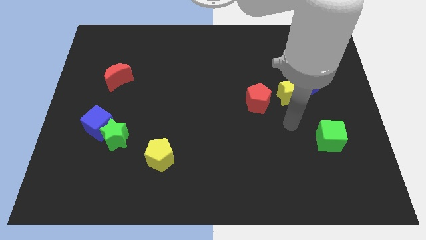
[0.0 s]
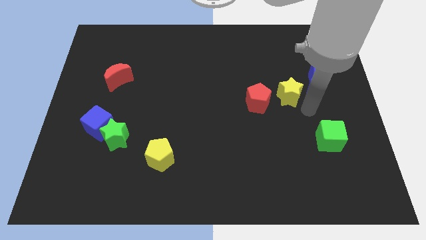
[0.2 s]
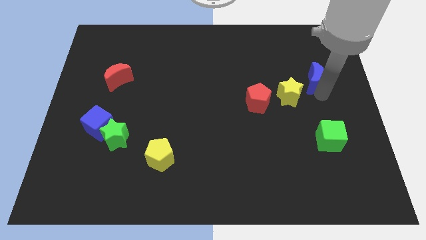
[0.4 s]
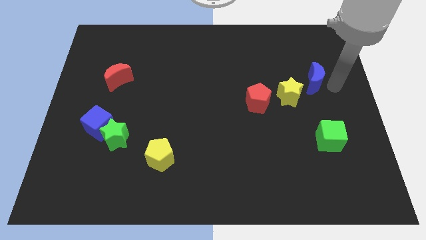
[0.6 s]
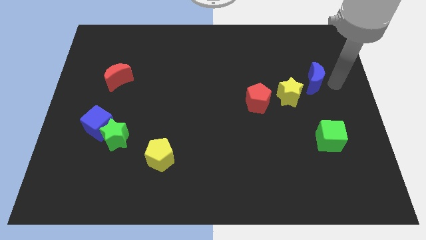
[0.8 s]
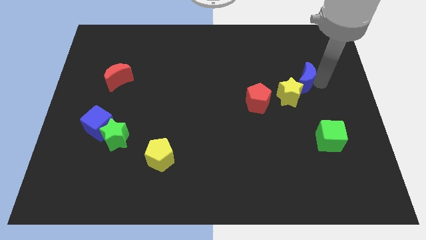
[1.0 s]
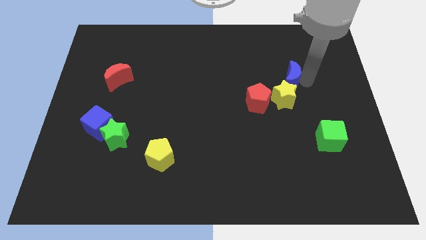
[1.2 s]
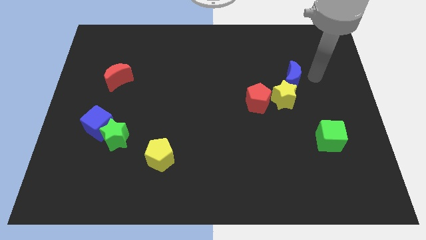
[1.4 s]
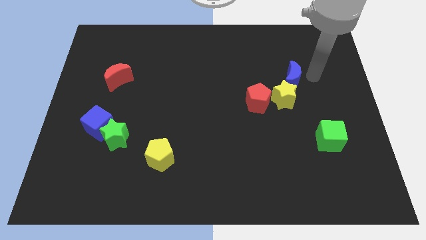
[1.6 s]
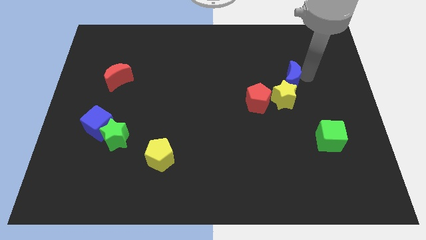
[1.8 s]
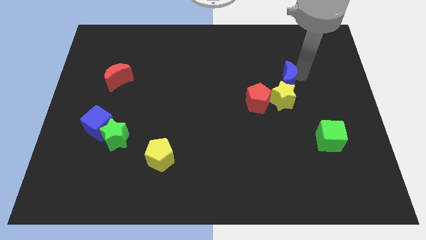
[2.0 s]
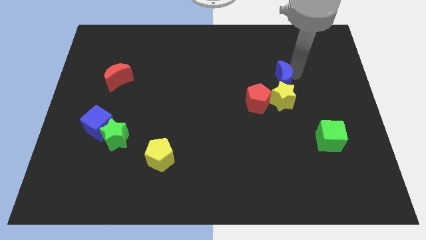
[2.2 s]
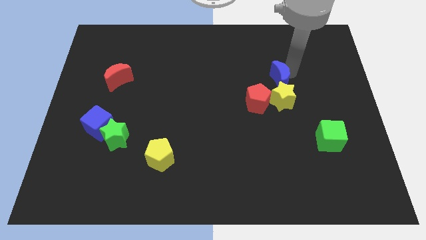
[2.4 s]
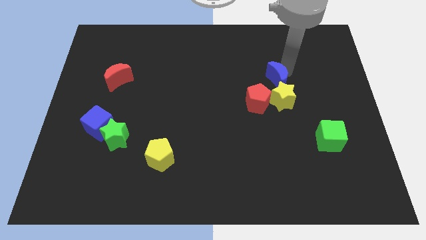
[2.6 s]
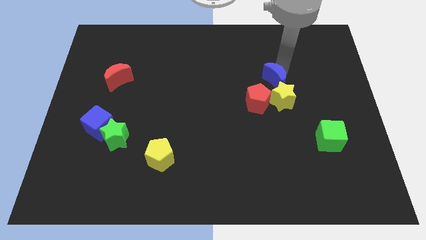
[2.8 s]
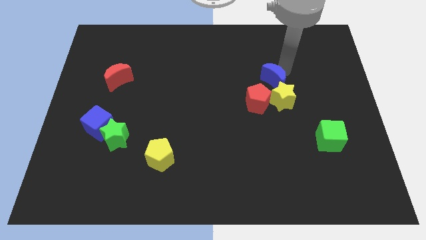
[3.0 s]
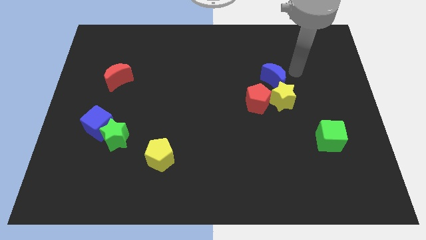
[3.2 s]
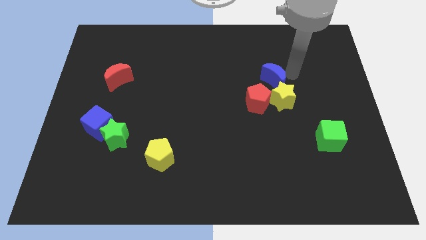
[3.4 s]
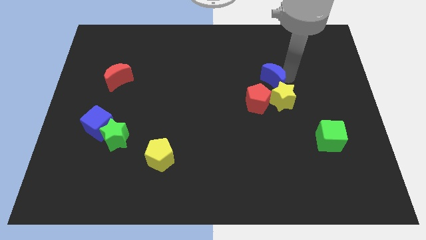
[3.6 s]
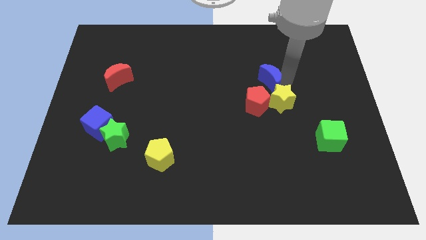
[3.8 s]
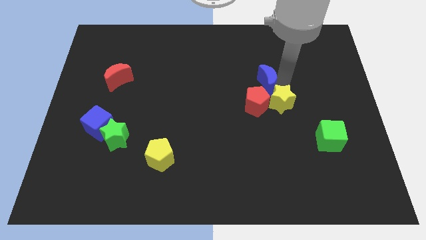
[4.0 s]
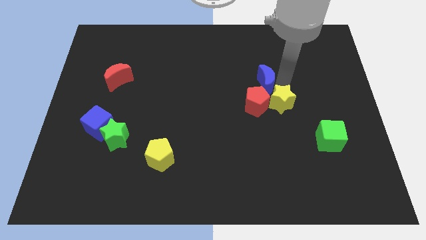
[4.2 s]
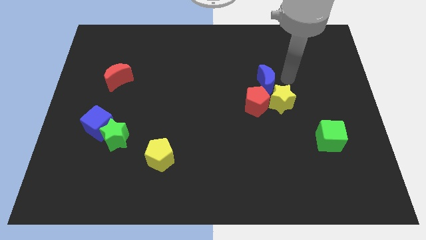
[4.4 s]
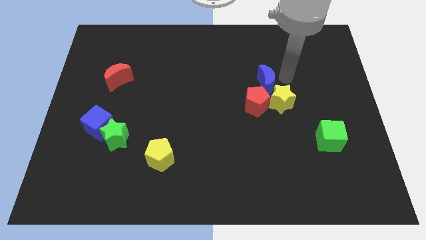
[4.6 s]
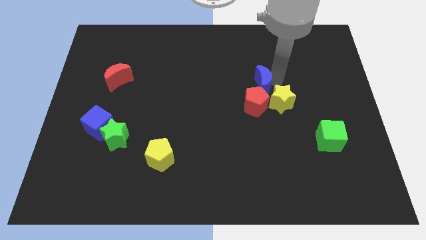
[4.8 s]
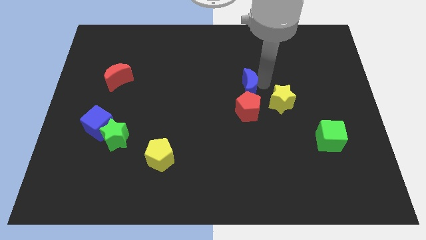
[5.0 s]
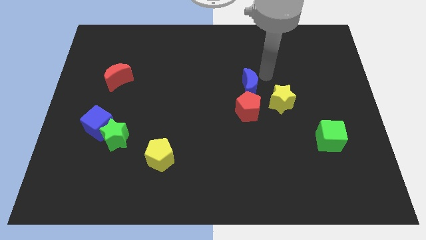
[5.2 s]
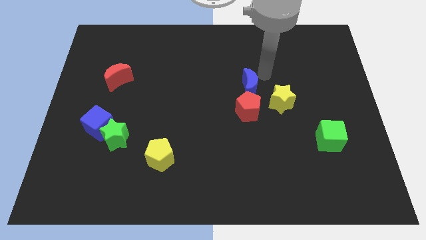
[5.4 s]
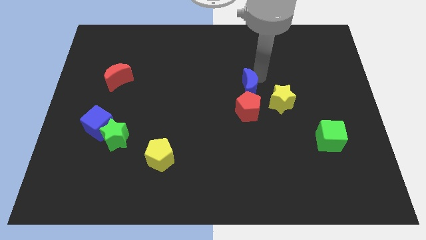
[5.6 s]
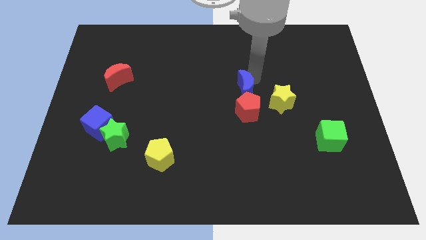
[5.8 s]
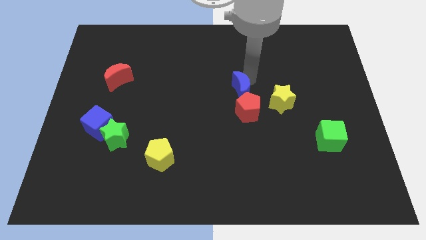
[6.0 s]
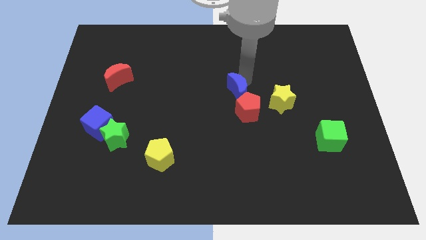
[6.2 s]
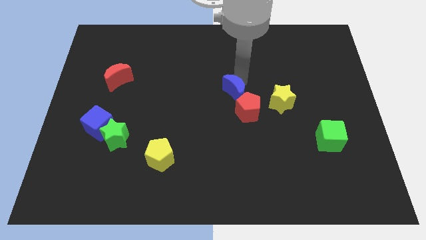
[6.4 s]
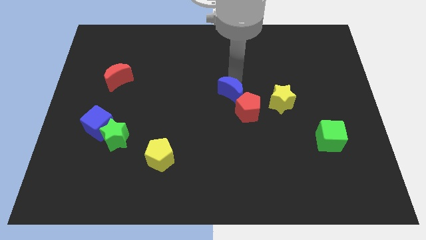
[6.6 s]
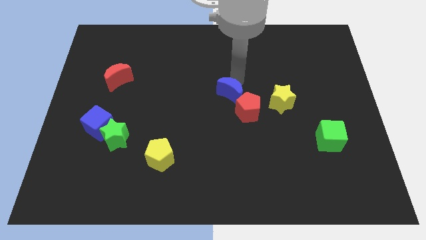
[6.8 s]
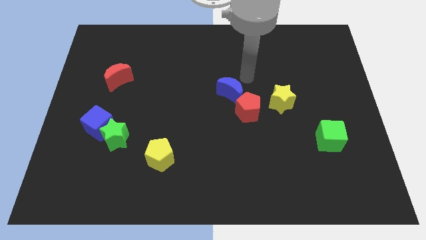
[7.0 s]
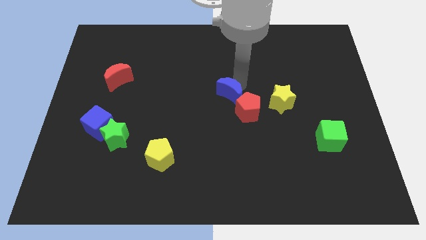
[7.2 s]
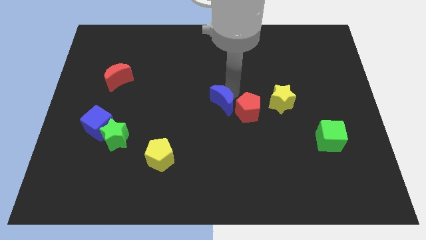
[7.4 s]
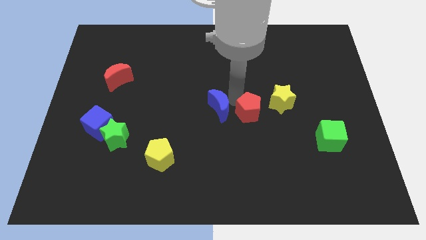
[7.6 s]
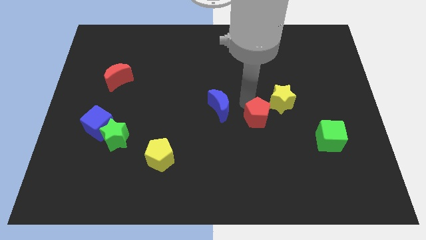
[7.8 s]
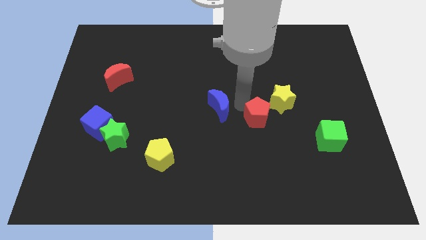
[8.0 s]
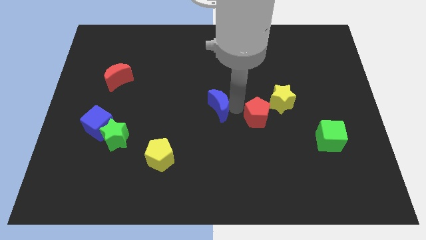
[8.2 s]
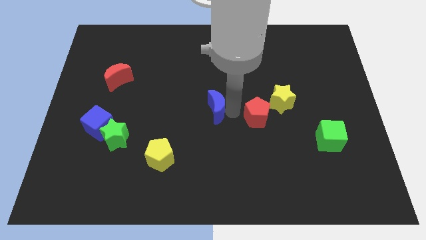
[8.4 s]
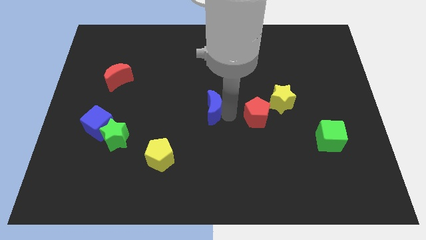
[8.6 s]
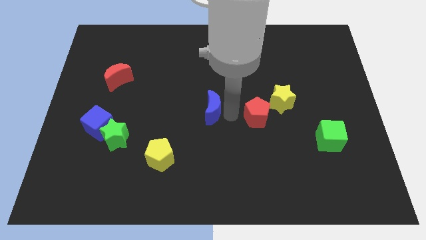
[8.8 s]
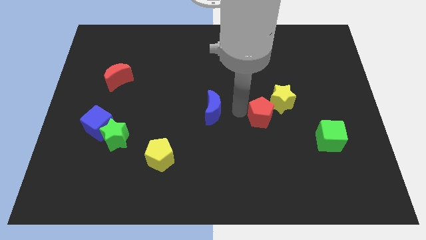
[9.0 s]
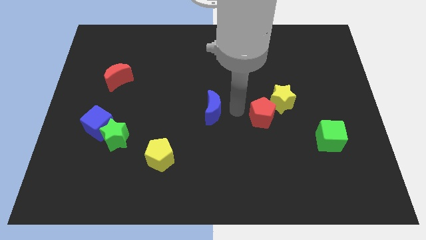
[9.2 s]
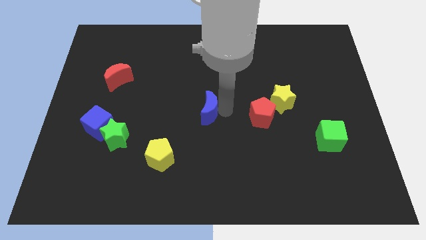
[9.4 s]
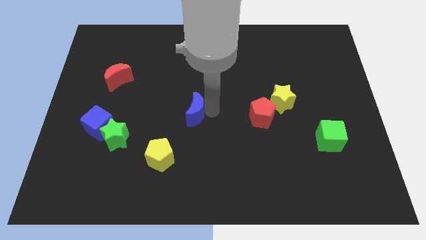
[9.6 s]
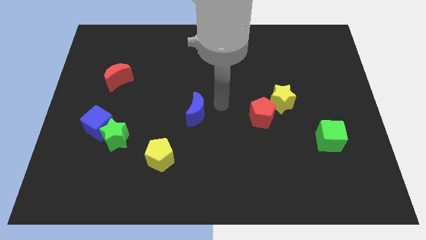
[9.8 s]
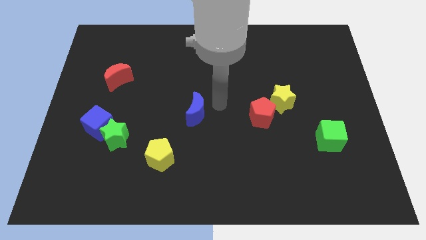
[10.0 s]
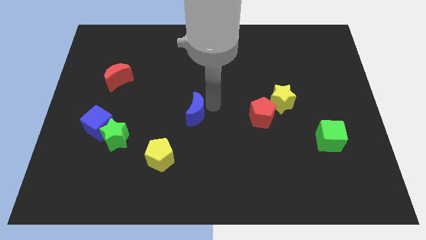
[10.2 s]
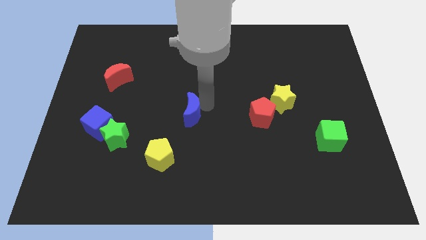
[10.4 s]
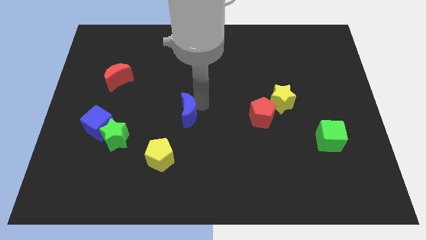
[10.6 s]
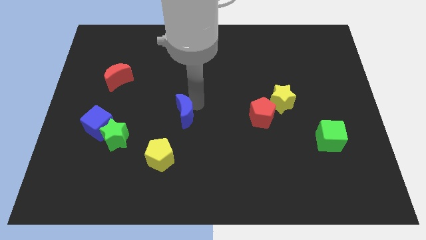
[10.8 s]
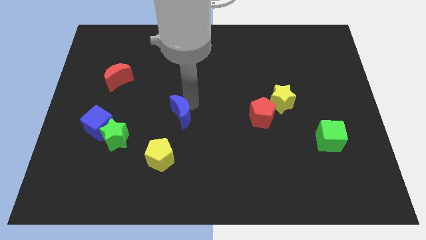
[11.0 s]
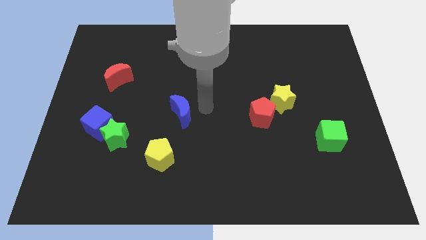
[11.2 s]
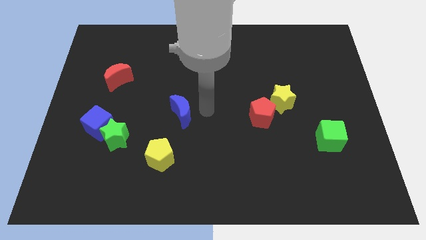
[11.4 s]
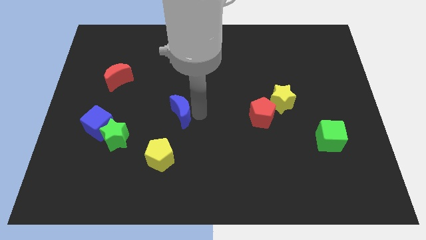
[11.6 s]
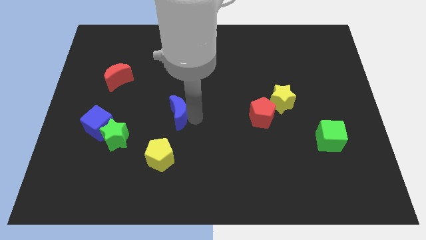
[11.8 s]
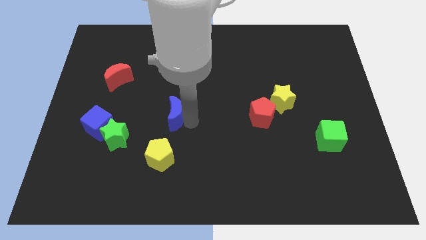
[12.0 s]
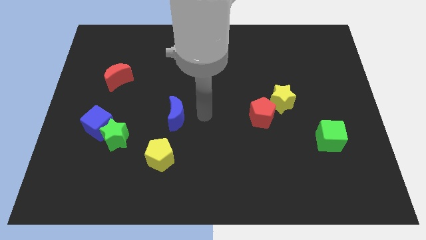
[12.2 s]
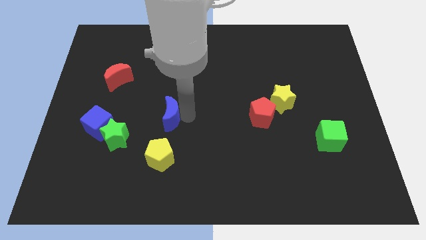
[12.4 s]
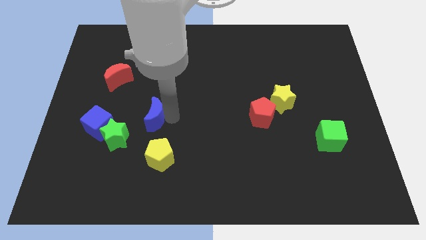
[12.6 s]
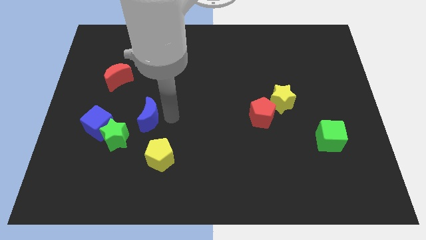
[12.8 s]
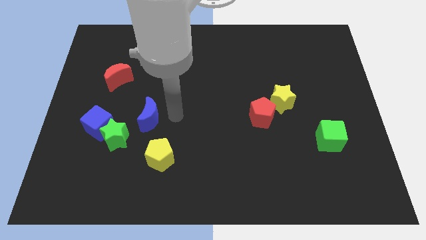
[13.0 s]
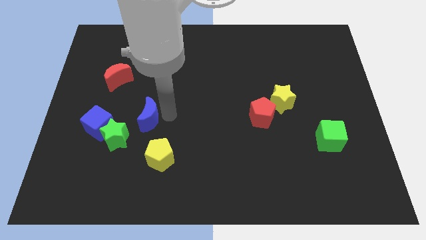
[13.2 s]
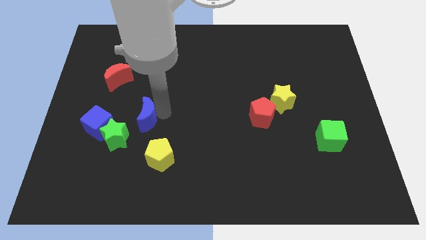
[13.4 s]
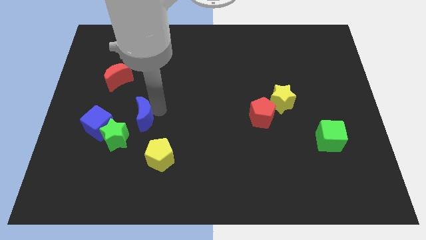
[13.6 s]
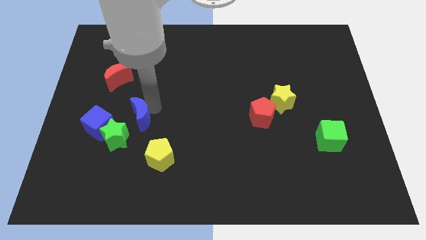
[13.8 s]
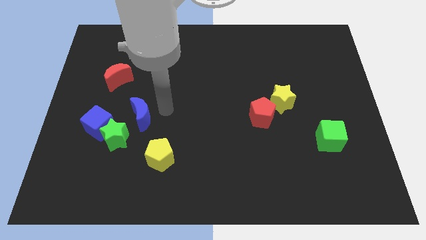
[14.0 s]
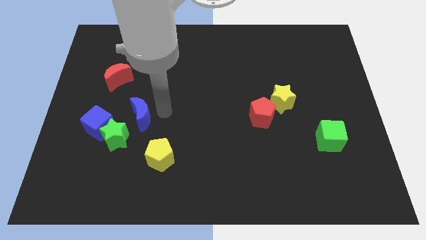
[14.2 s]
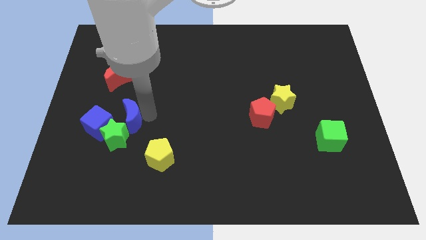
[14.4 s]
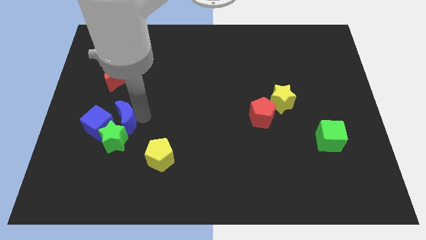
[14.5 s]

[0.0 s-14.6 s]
move the blue moon close to the blue cube
